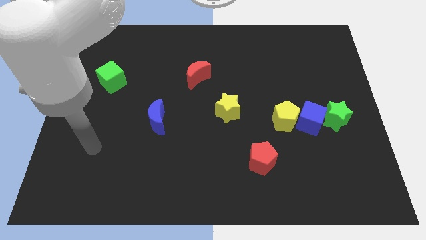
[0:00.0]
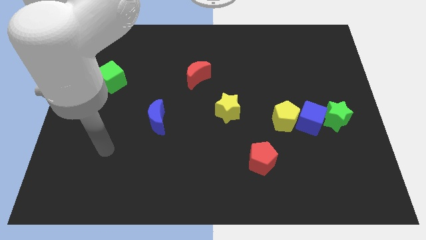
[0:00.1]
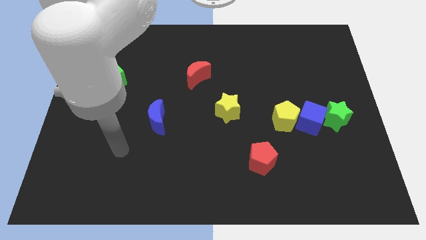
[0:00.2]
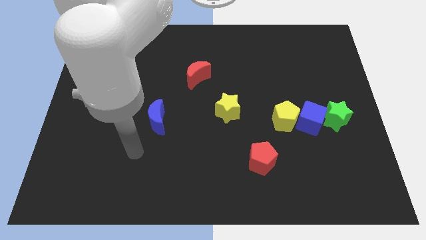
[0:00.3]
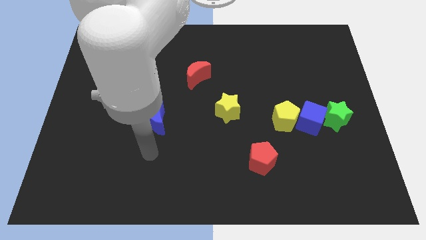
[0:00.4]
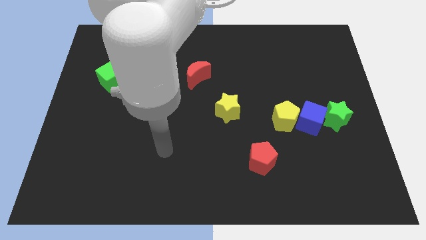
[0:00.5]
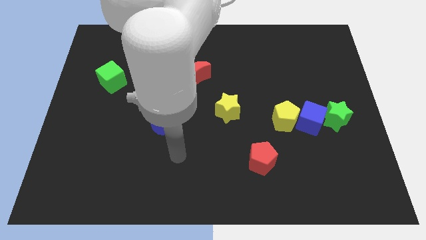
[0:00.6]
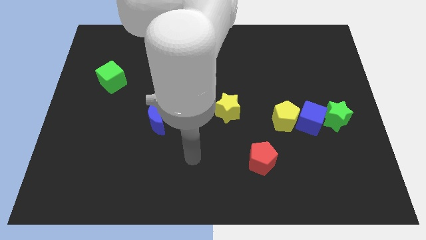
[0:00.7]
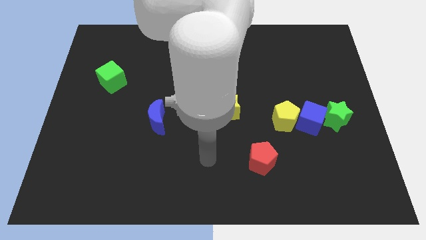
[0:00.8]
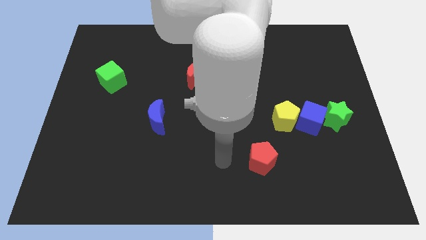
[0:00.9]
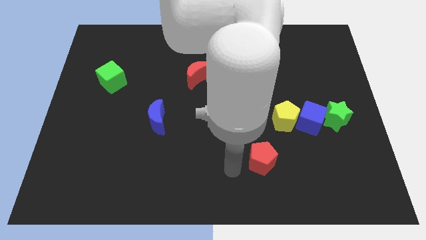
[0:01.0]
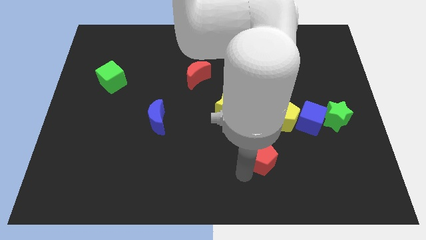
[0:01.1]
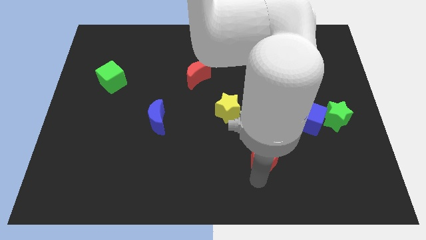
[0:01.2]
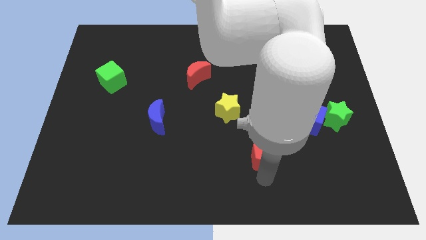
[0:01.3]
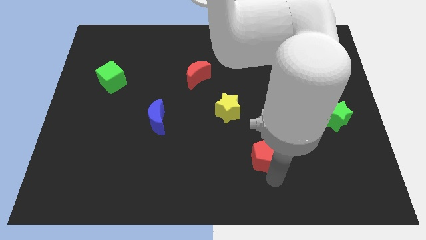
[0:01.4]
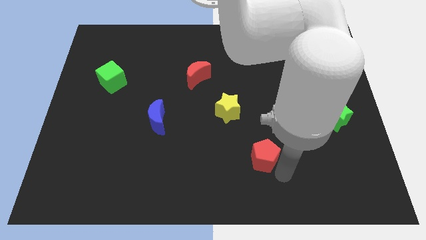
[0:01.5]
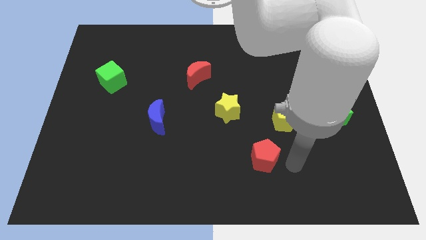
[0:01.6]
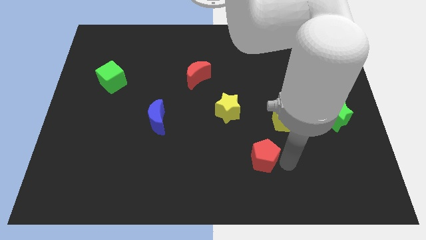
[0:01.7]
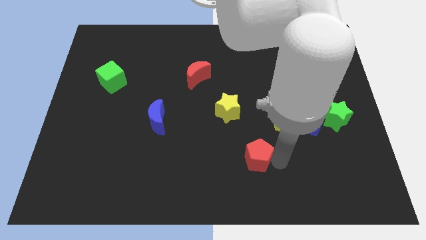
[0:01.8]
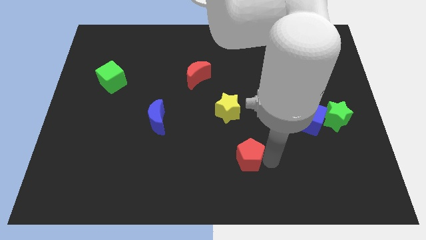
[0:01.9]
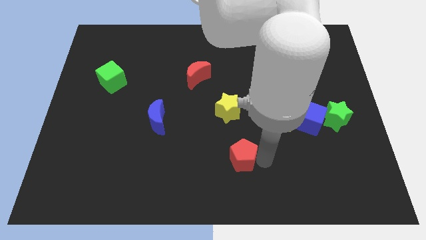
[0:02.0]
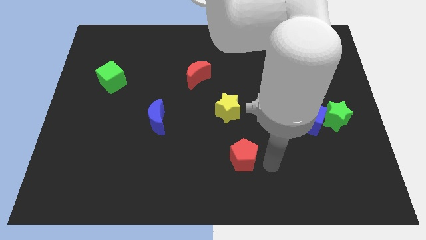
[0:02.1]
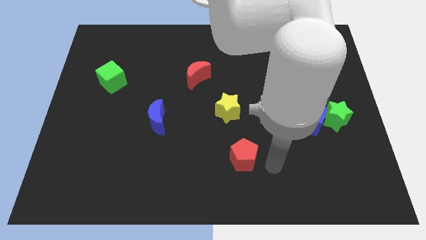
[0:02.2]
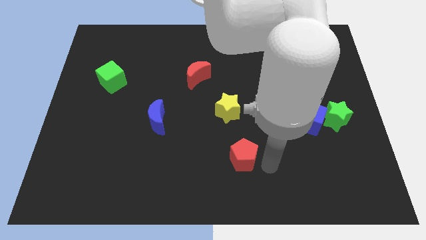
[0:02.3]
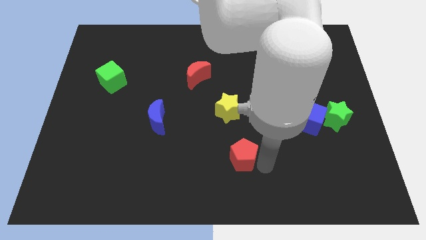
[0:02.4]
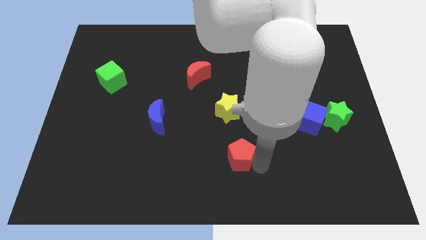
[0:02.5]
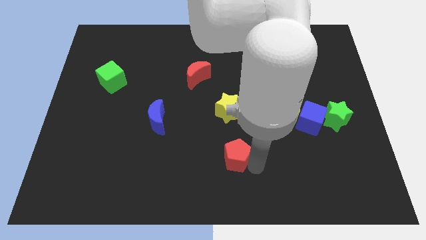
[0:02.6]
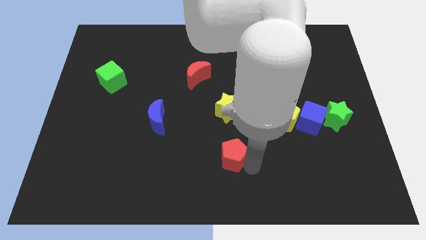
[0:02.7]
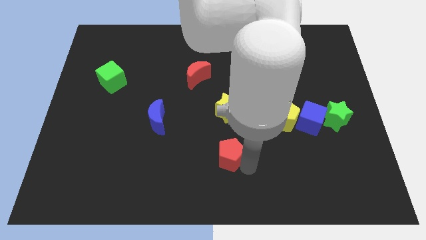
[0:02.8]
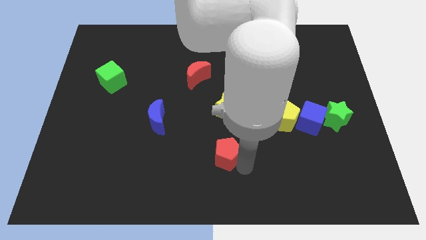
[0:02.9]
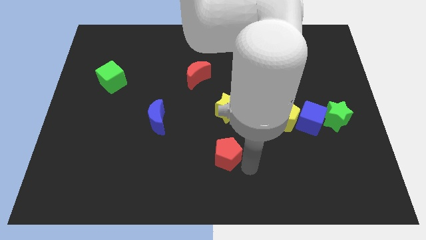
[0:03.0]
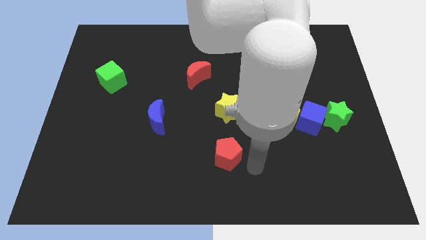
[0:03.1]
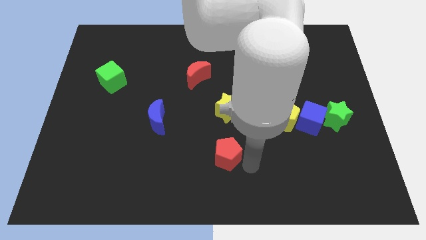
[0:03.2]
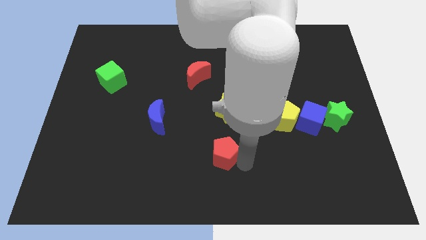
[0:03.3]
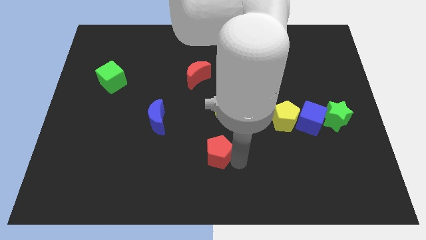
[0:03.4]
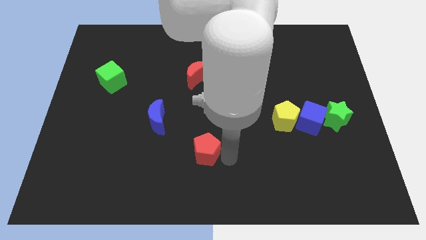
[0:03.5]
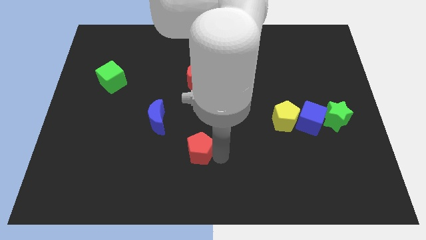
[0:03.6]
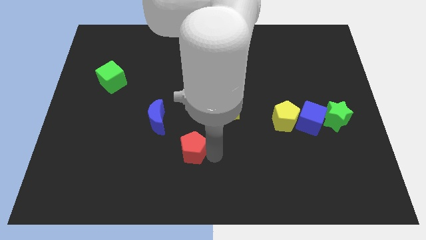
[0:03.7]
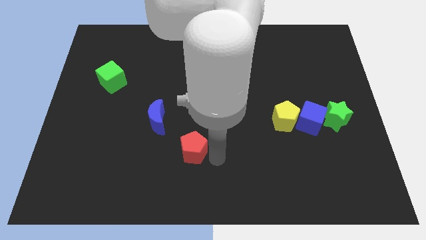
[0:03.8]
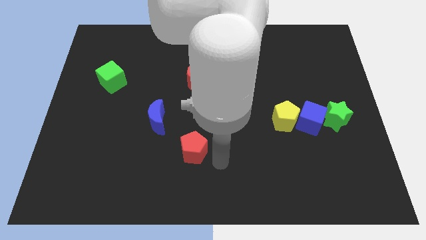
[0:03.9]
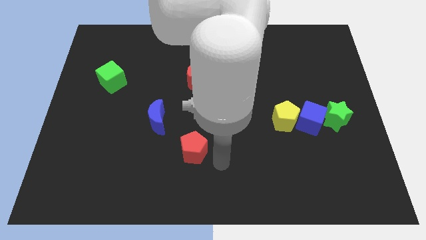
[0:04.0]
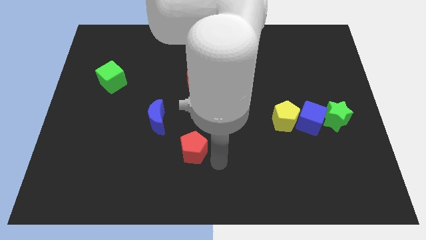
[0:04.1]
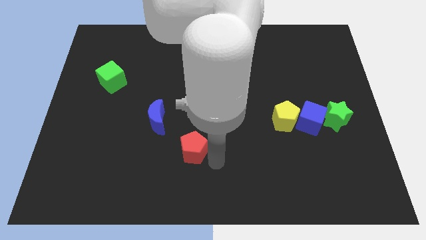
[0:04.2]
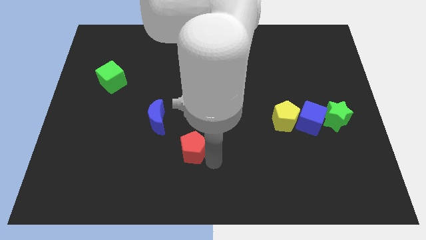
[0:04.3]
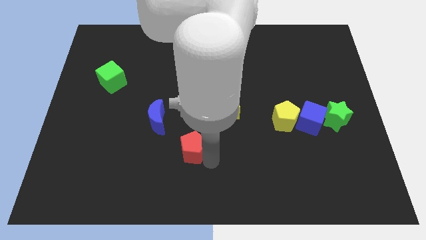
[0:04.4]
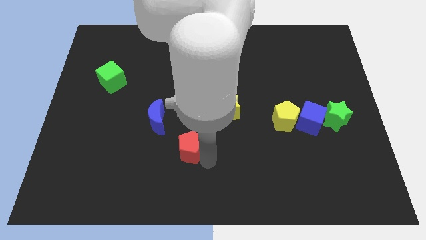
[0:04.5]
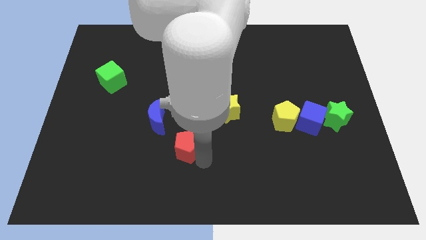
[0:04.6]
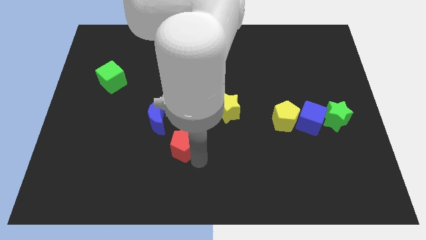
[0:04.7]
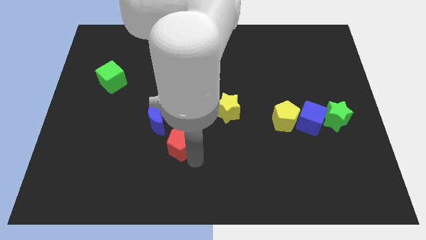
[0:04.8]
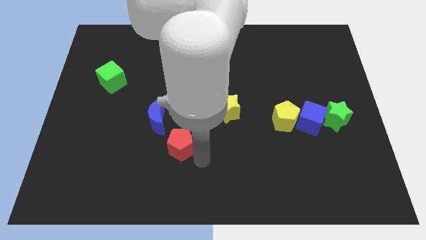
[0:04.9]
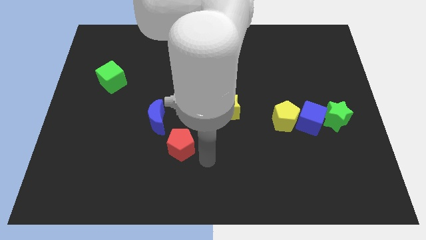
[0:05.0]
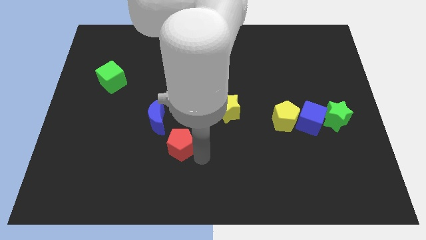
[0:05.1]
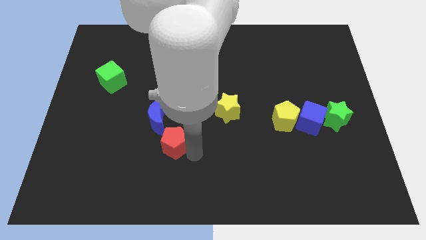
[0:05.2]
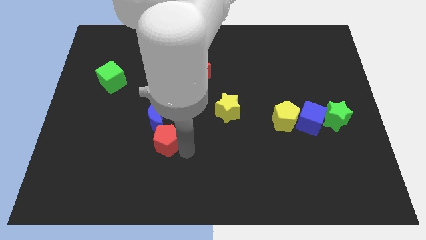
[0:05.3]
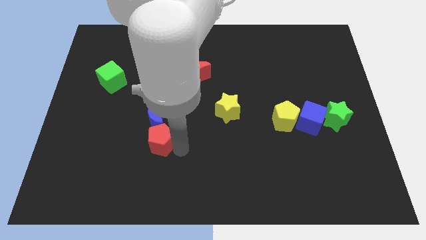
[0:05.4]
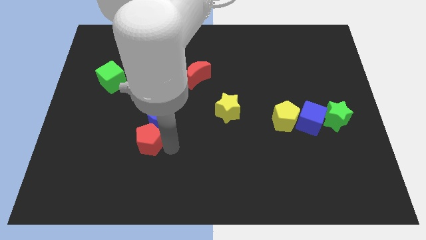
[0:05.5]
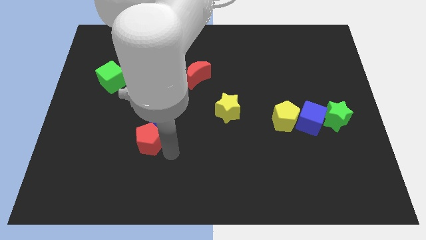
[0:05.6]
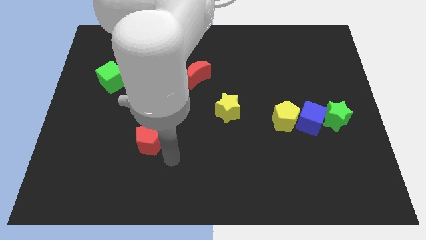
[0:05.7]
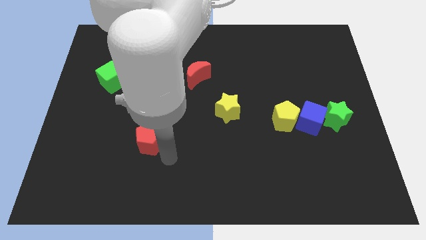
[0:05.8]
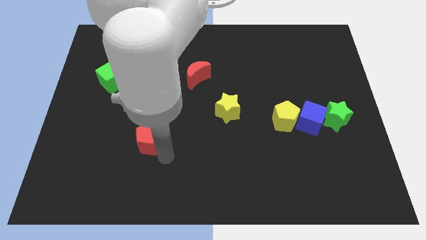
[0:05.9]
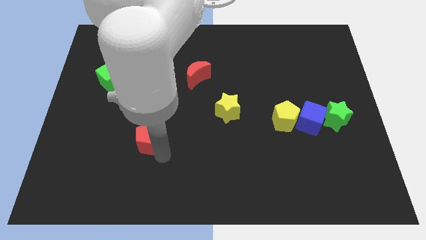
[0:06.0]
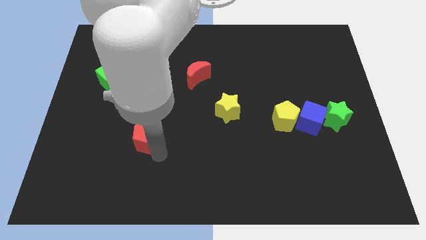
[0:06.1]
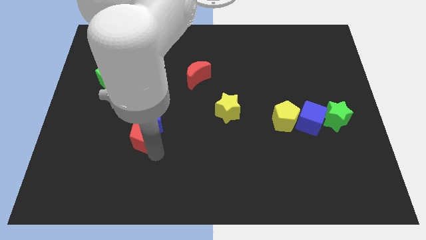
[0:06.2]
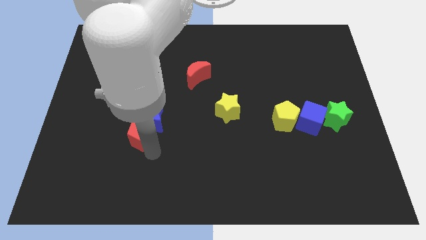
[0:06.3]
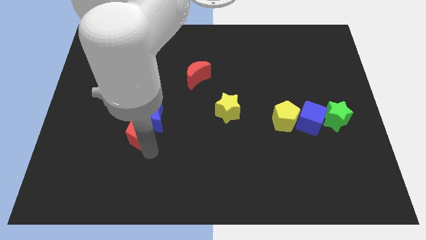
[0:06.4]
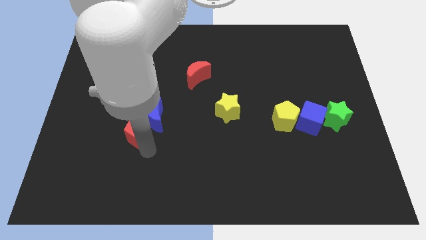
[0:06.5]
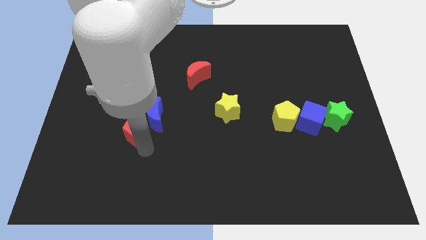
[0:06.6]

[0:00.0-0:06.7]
push the red pentagon just left of the blue moon

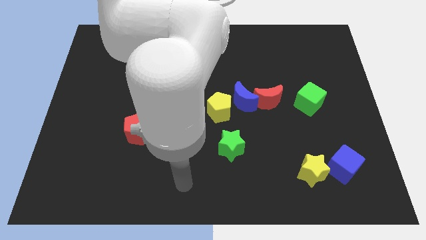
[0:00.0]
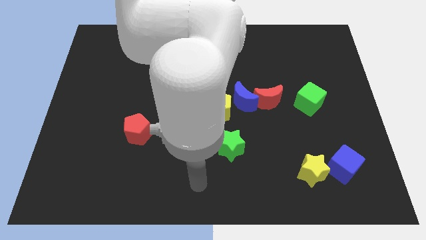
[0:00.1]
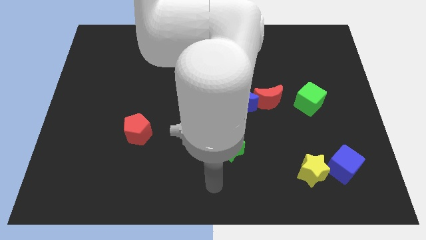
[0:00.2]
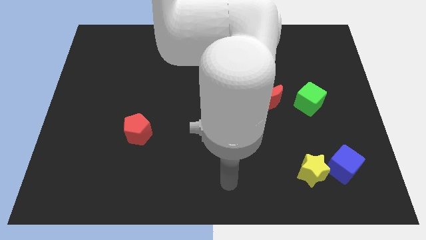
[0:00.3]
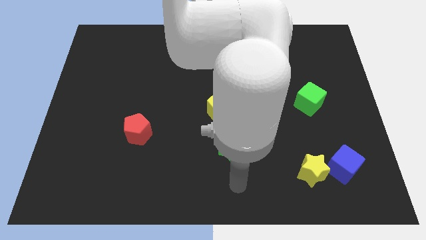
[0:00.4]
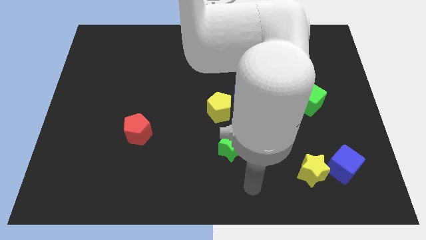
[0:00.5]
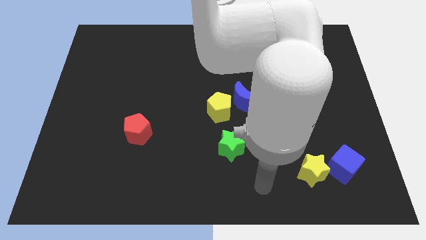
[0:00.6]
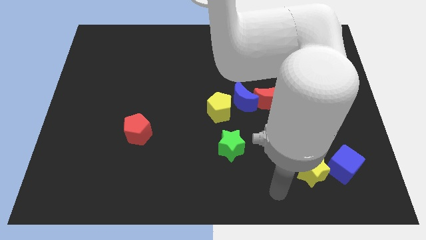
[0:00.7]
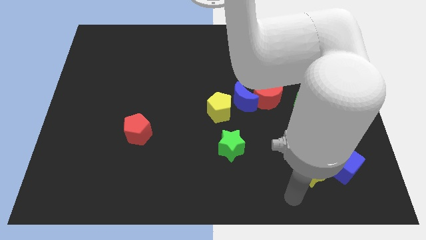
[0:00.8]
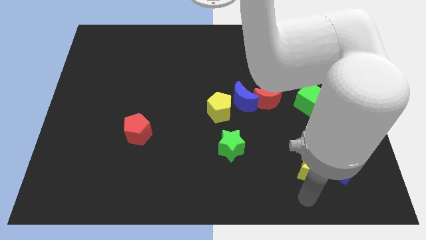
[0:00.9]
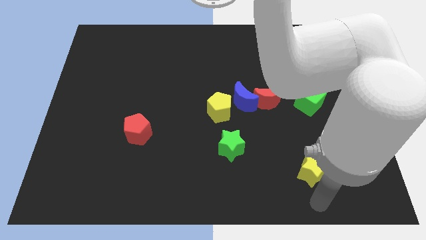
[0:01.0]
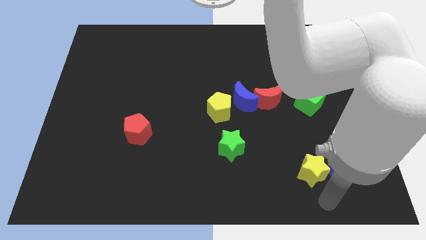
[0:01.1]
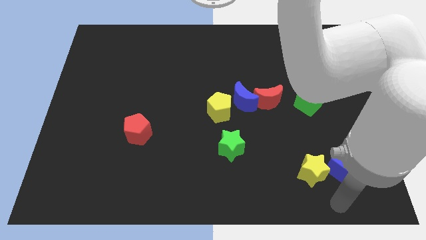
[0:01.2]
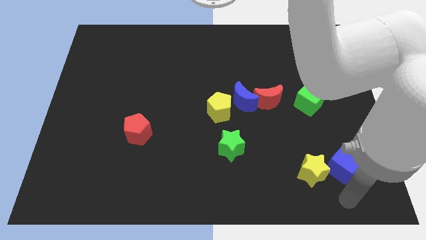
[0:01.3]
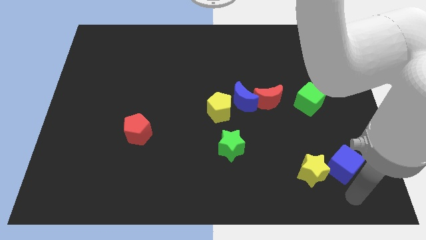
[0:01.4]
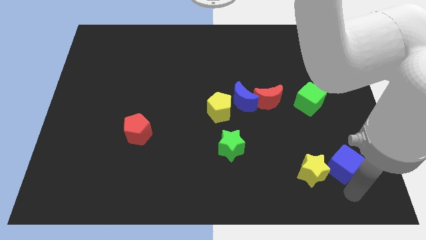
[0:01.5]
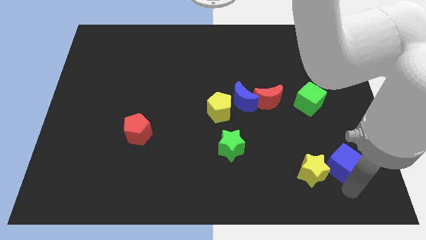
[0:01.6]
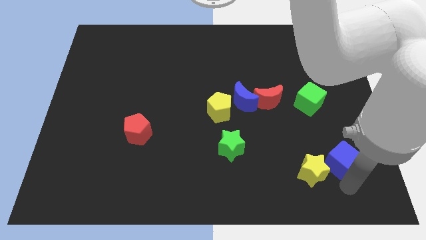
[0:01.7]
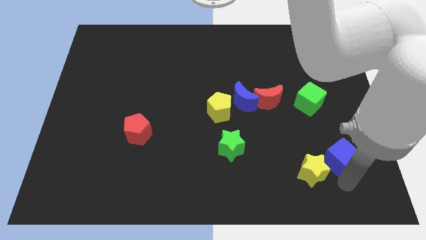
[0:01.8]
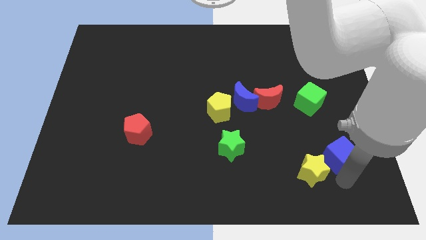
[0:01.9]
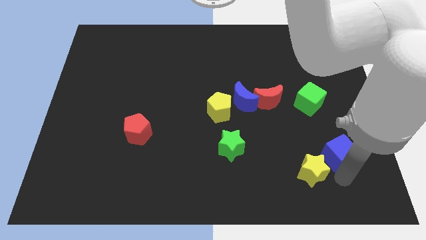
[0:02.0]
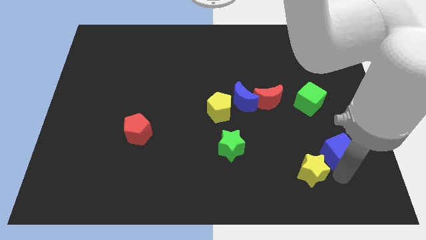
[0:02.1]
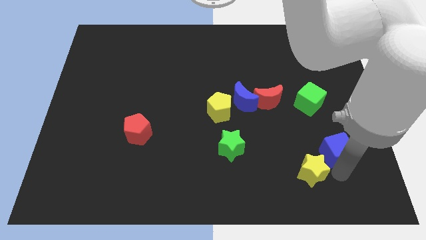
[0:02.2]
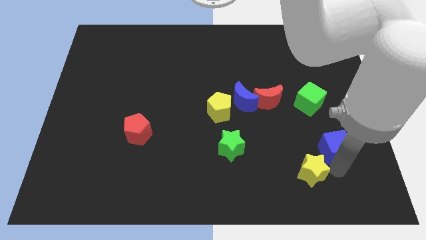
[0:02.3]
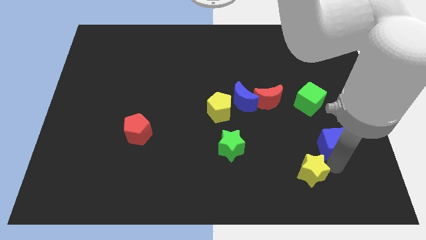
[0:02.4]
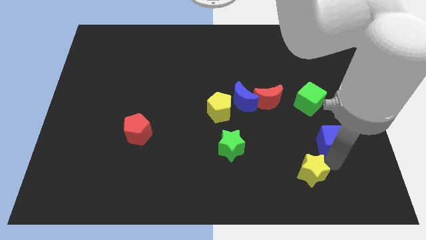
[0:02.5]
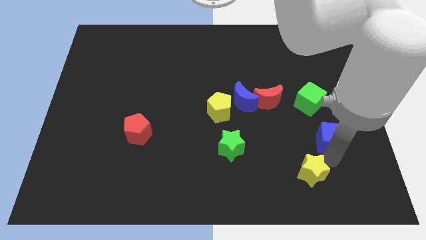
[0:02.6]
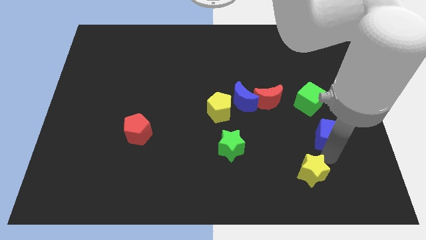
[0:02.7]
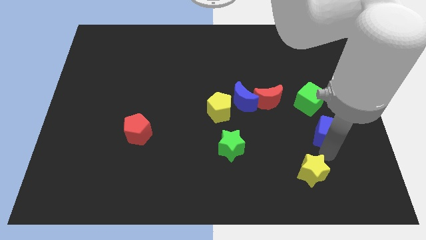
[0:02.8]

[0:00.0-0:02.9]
push the blue cube diagonally down and to the right of the green cube
